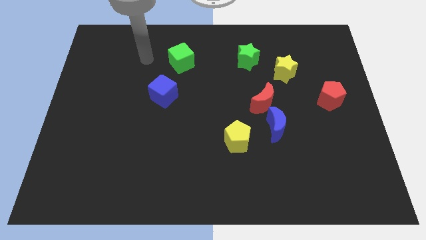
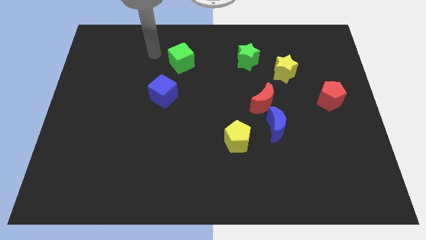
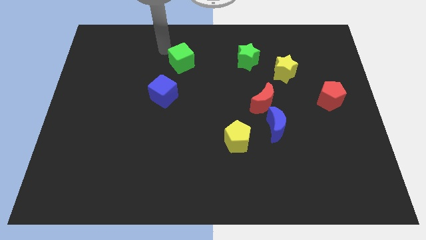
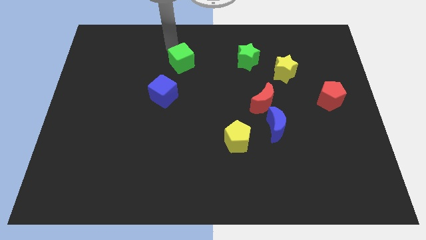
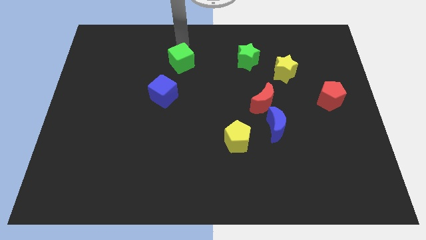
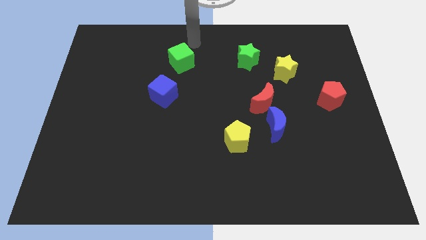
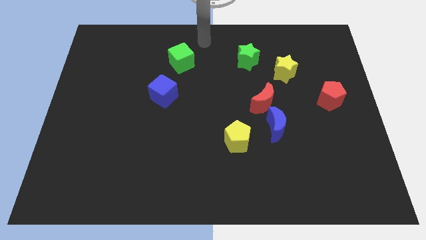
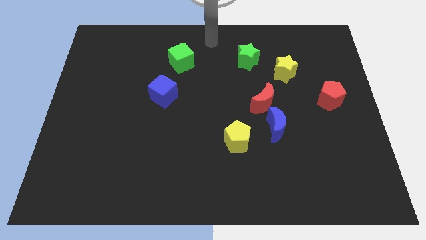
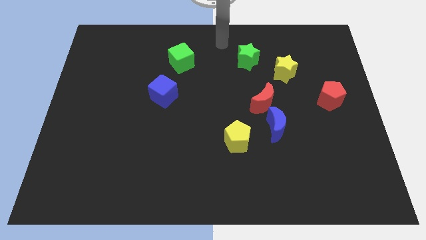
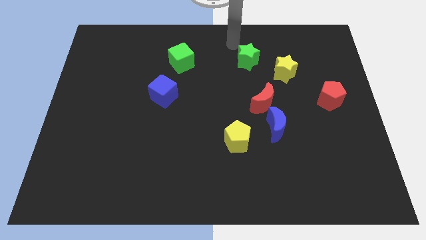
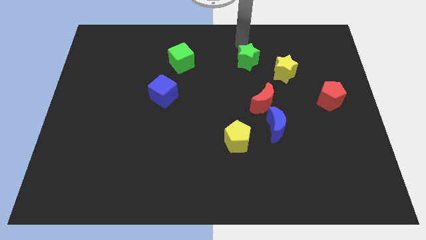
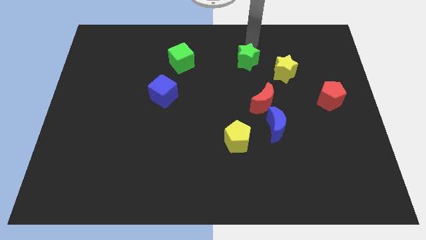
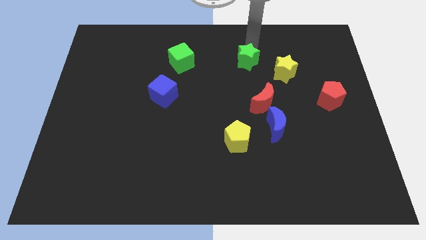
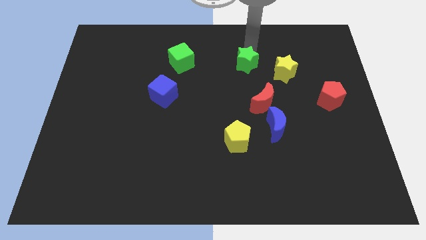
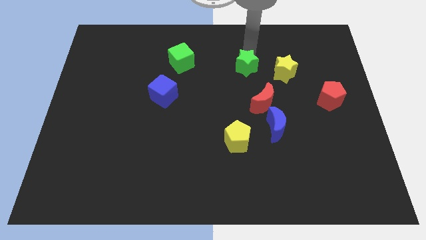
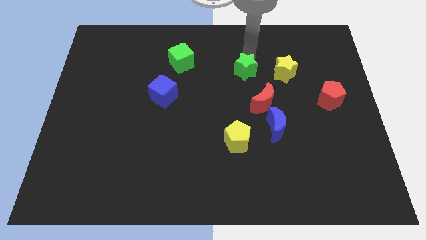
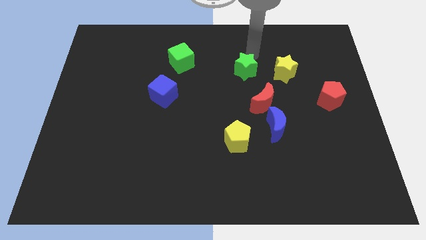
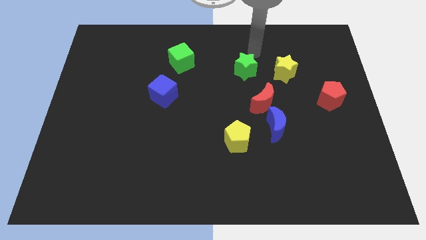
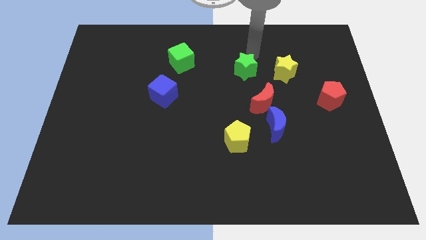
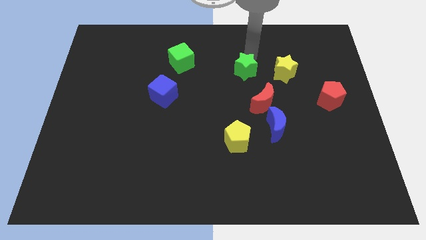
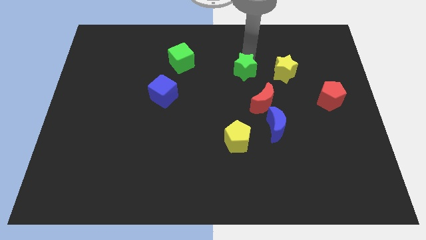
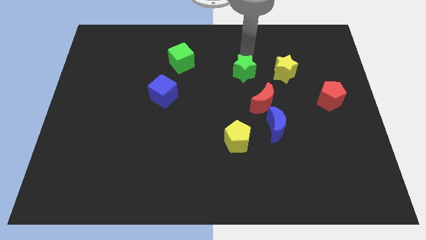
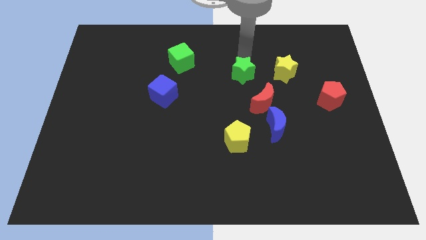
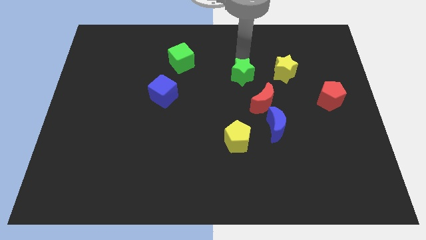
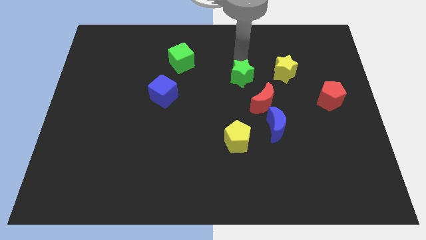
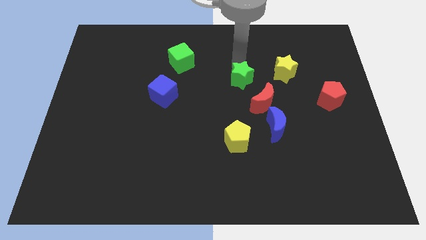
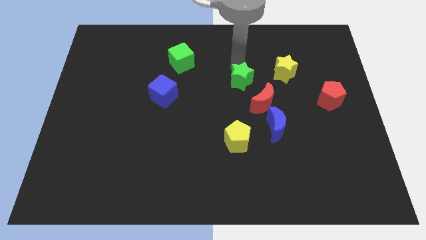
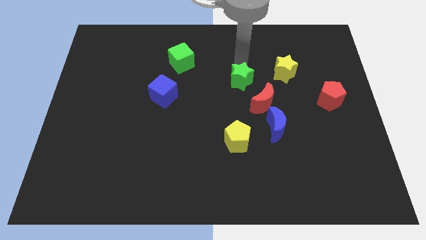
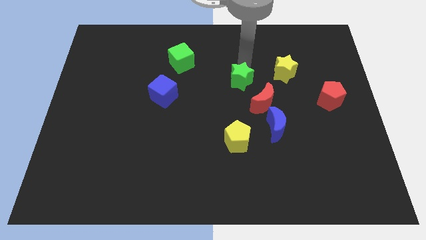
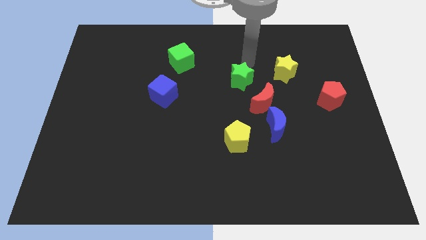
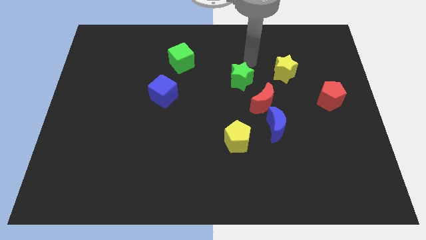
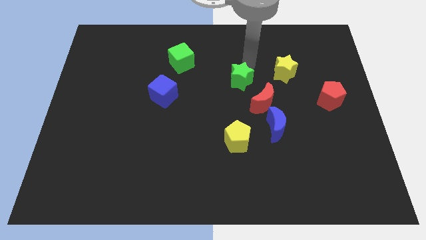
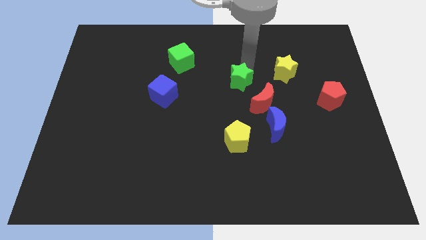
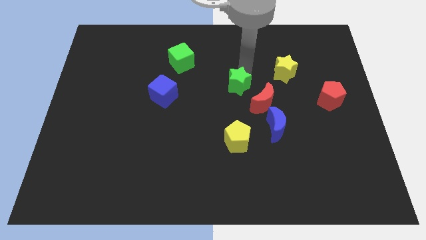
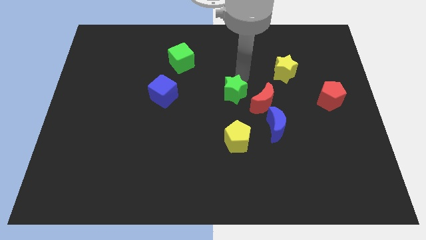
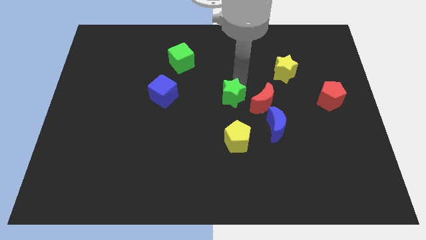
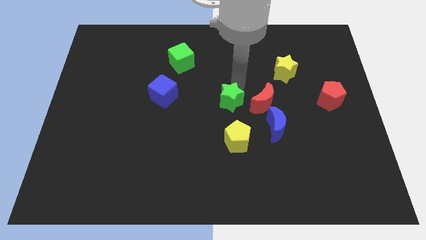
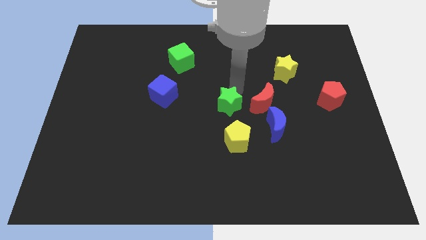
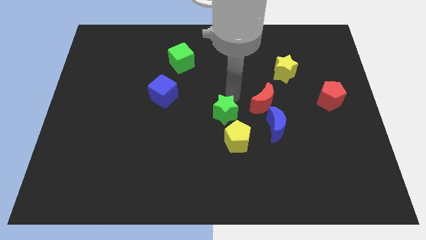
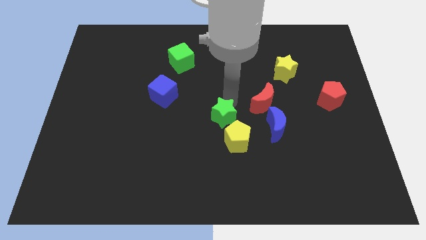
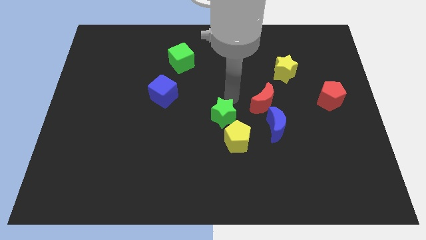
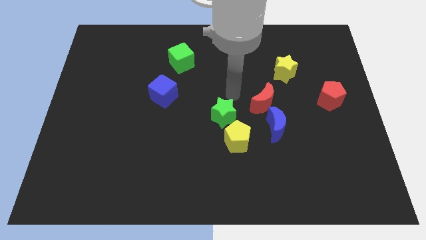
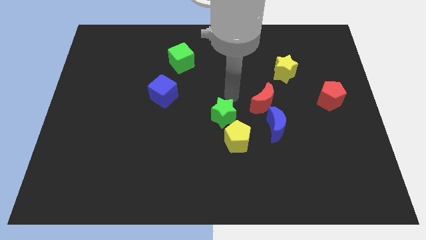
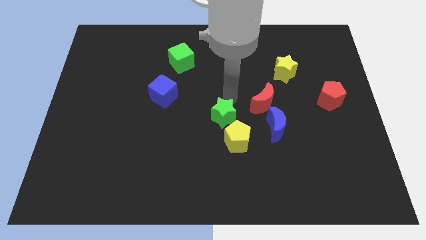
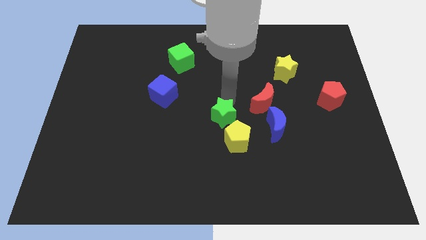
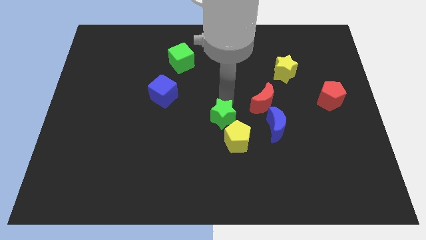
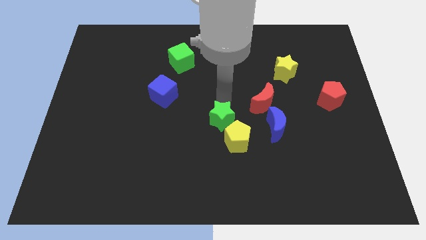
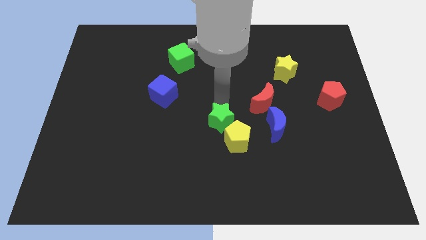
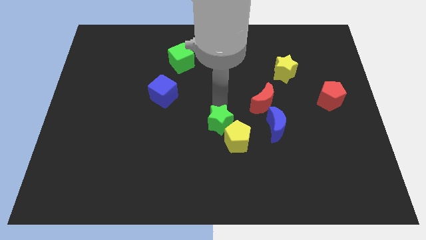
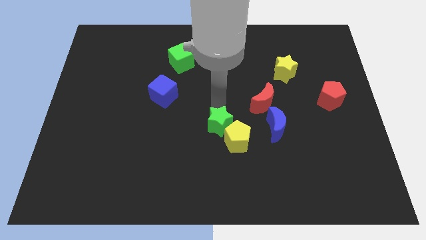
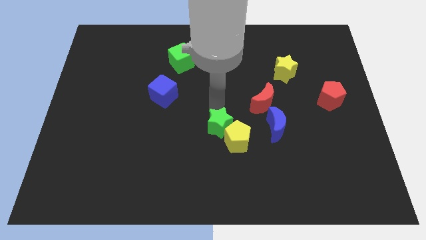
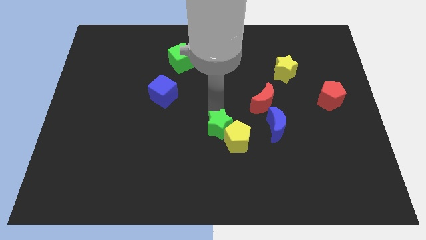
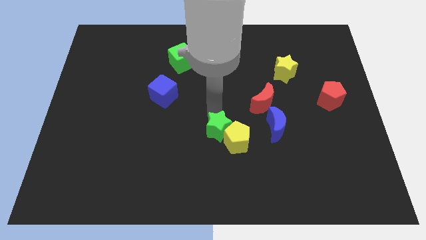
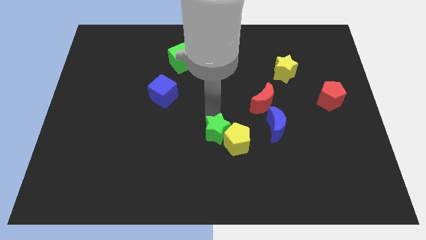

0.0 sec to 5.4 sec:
push the green star downwards

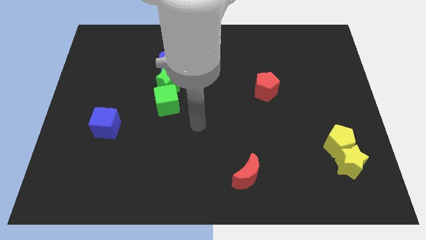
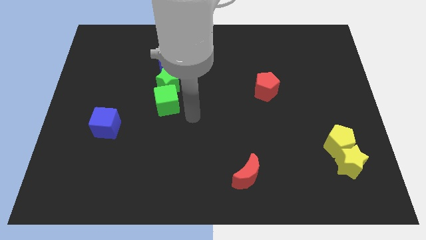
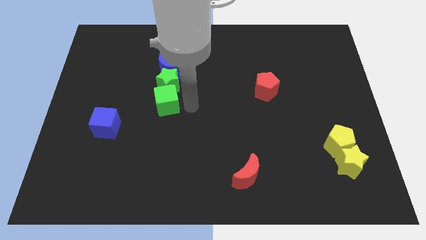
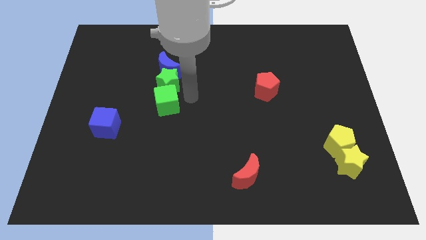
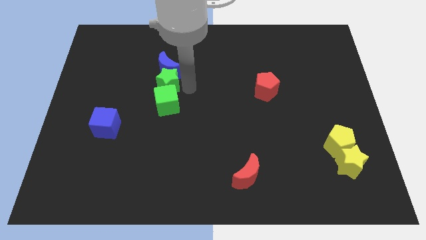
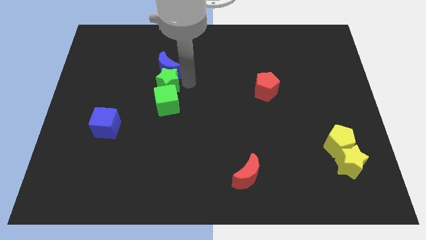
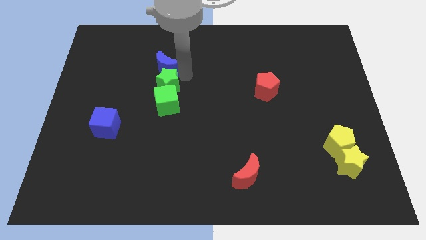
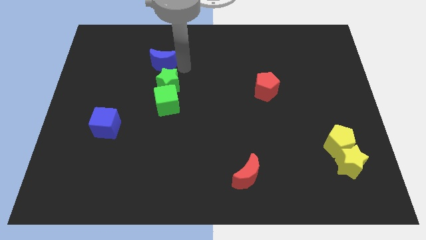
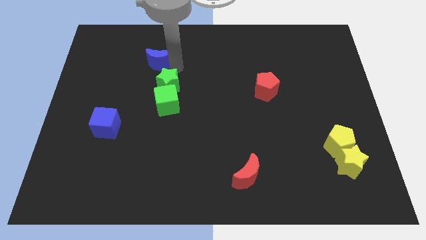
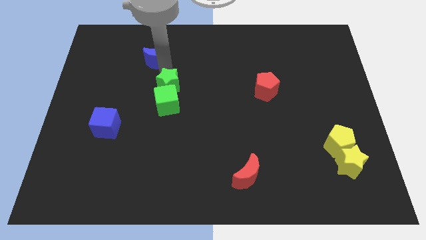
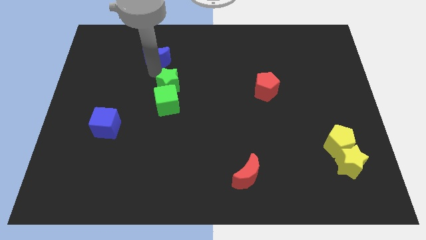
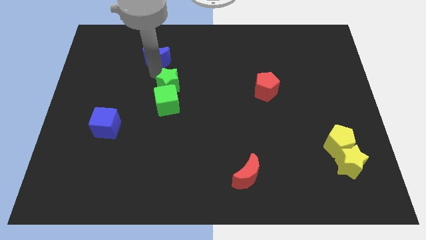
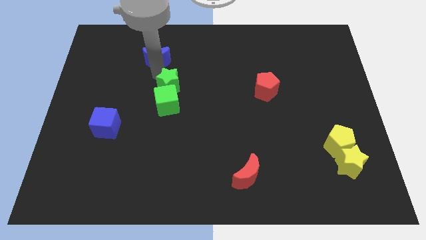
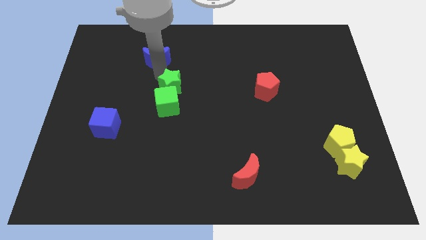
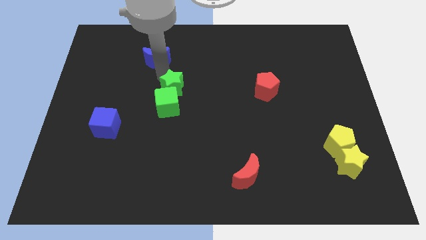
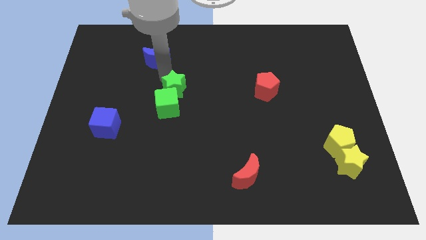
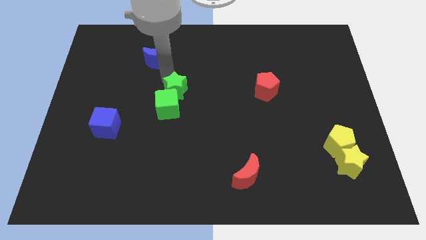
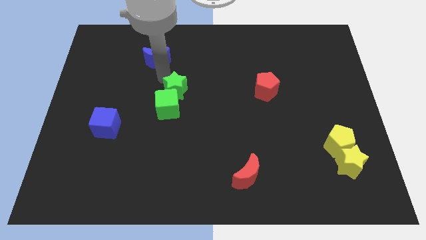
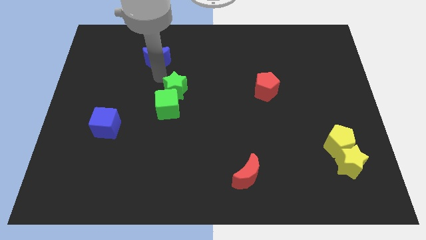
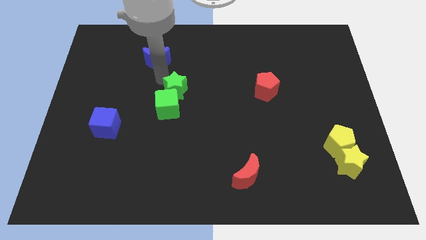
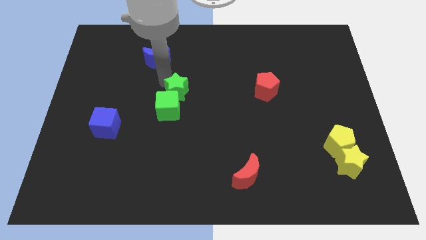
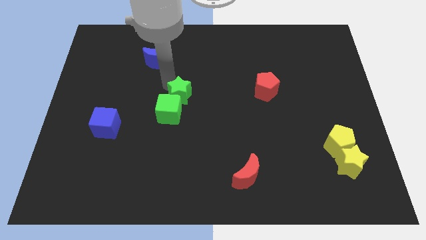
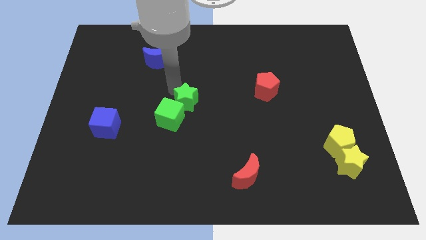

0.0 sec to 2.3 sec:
slide the green star diagonally down and right slightly

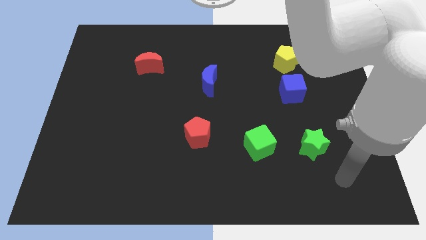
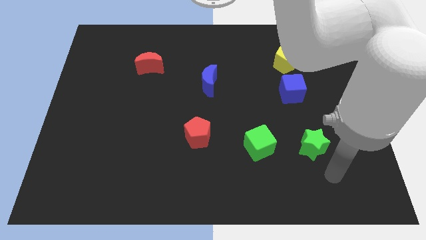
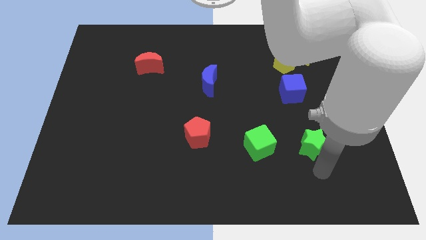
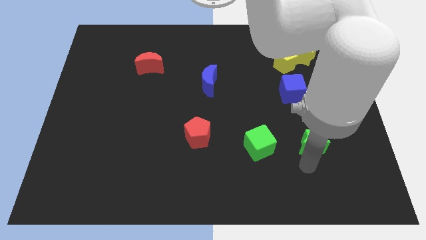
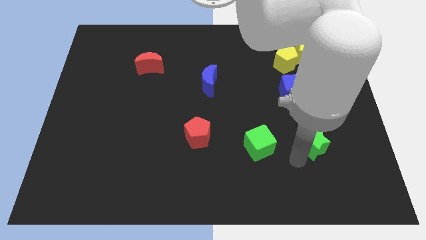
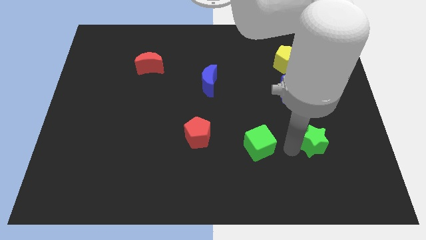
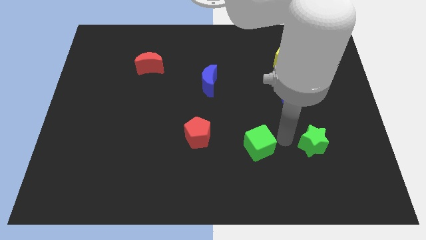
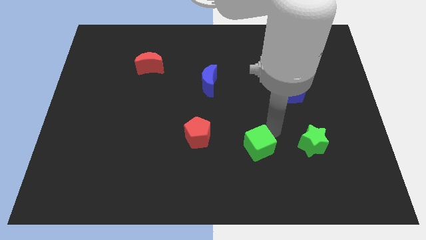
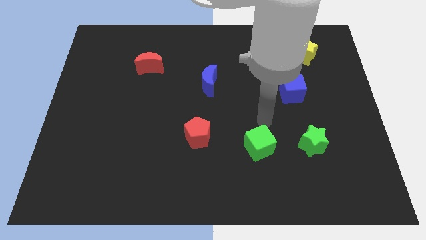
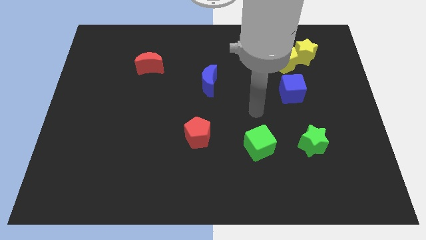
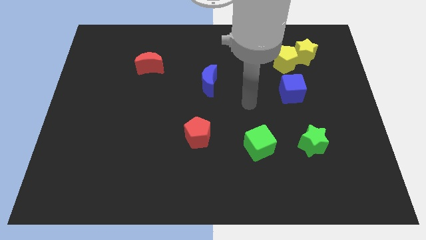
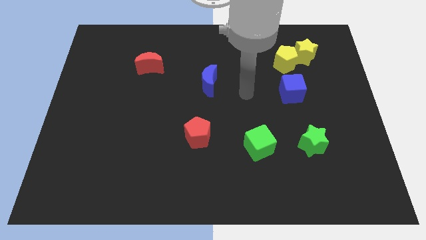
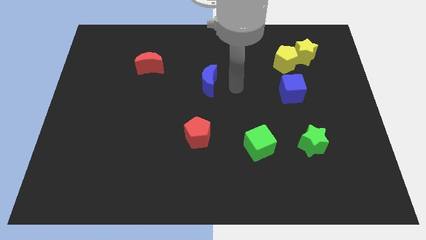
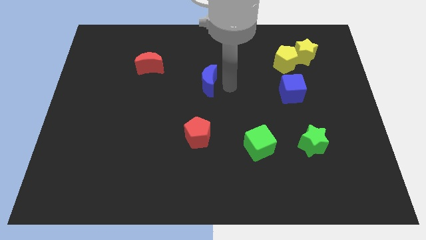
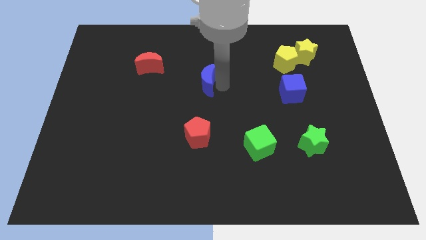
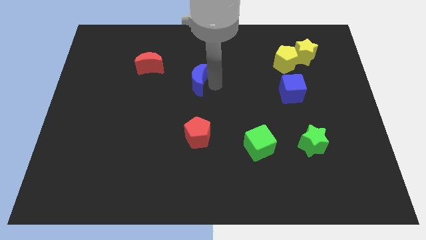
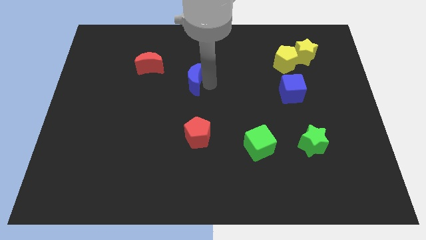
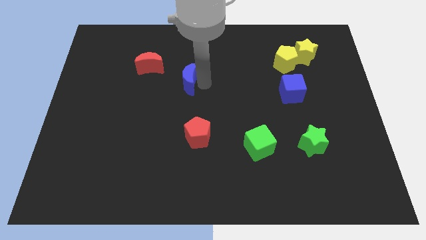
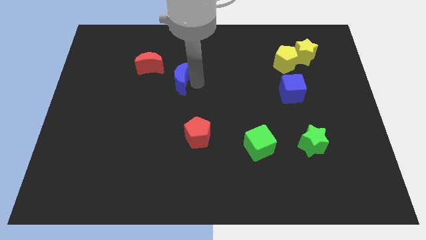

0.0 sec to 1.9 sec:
push the blue moon somewhat left
